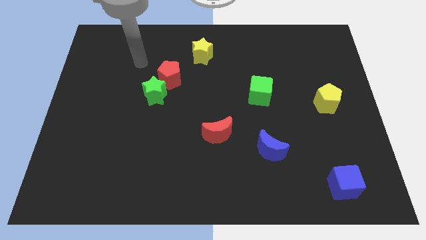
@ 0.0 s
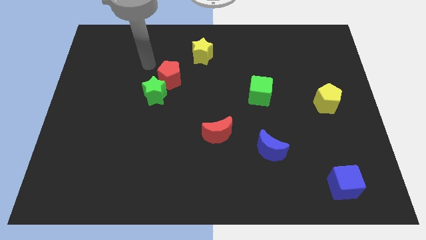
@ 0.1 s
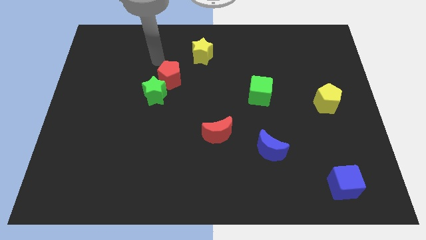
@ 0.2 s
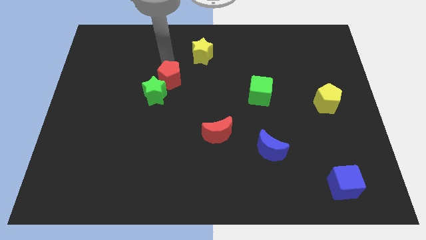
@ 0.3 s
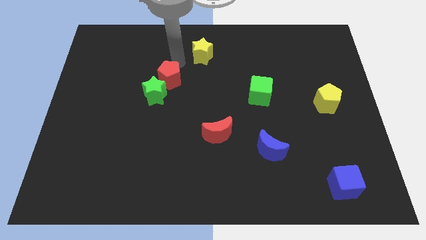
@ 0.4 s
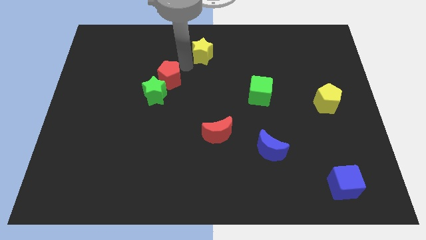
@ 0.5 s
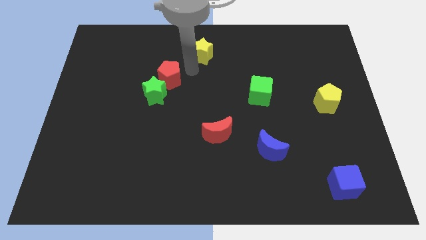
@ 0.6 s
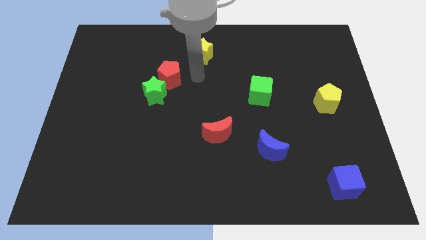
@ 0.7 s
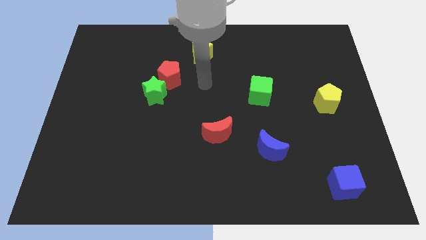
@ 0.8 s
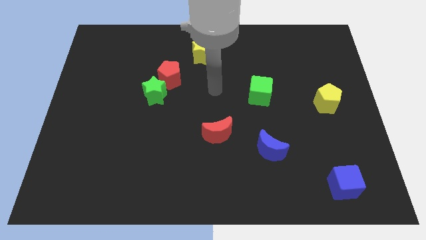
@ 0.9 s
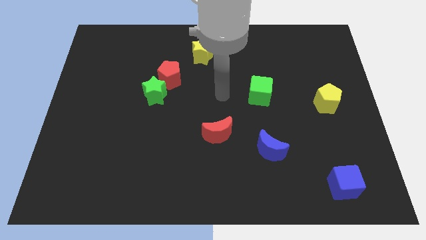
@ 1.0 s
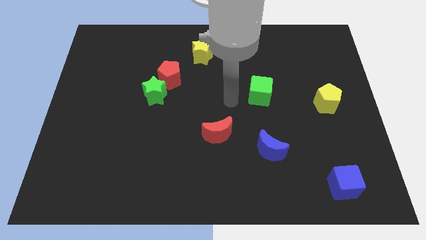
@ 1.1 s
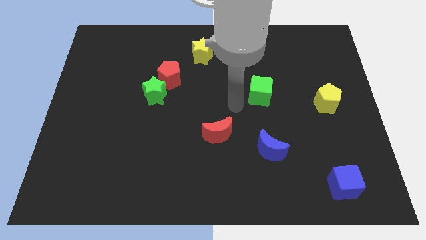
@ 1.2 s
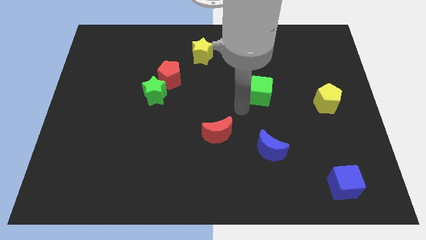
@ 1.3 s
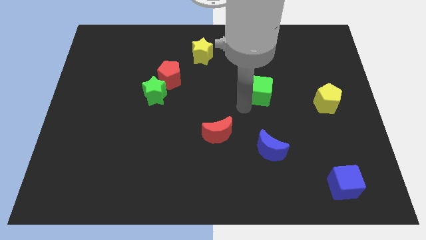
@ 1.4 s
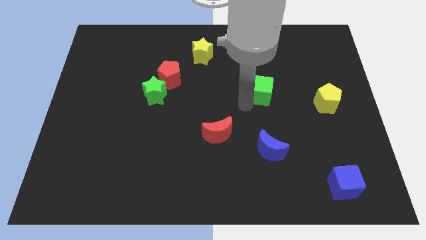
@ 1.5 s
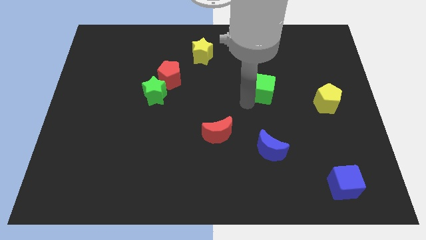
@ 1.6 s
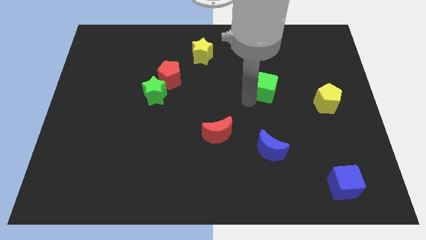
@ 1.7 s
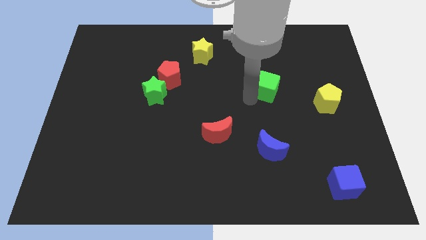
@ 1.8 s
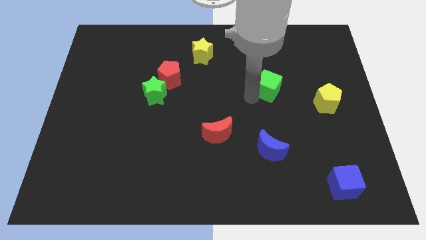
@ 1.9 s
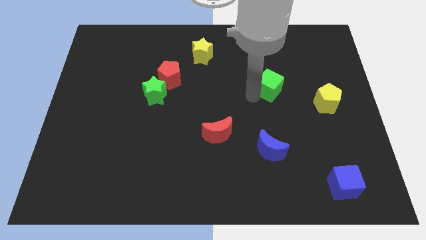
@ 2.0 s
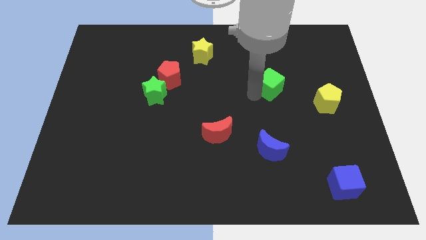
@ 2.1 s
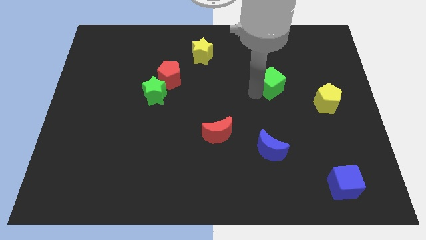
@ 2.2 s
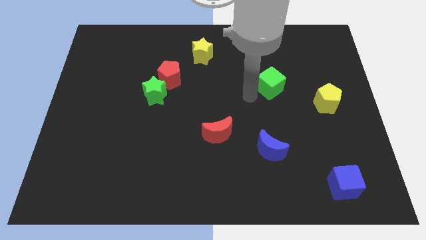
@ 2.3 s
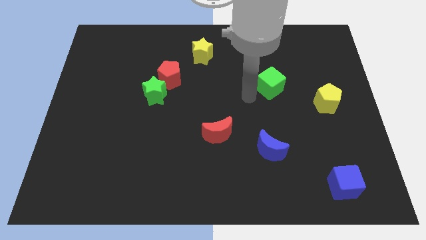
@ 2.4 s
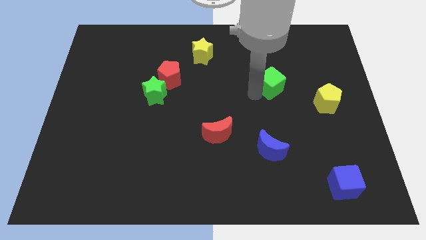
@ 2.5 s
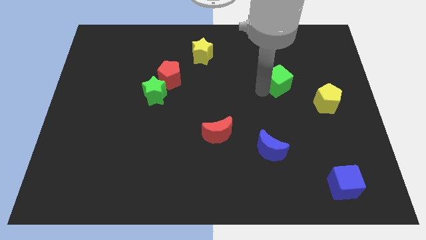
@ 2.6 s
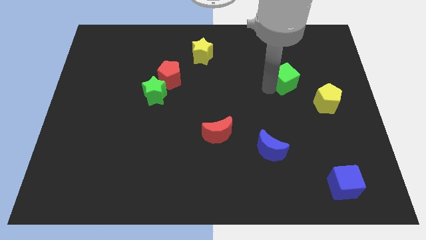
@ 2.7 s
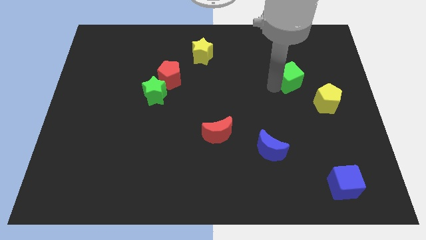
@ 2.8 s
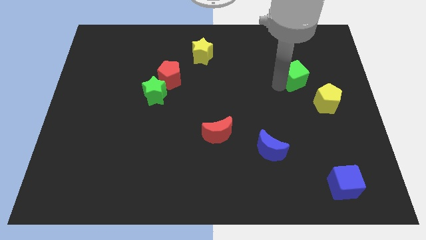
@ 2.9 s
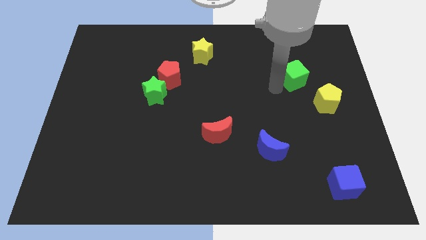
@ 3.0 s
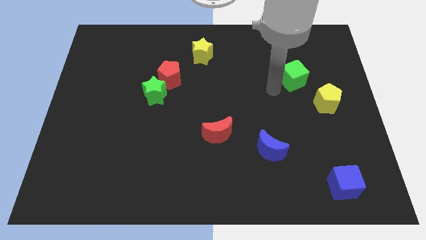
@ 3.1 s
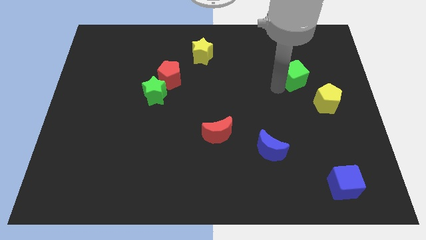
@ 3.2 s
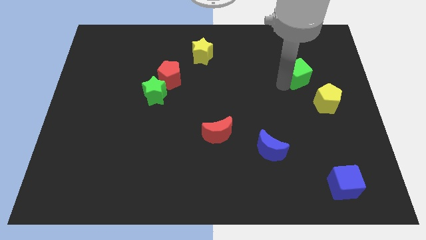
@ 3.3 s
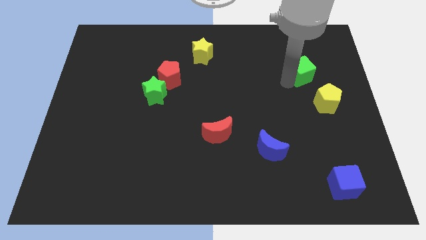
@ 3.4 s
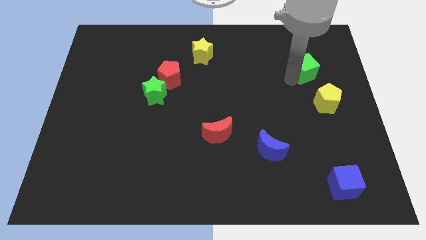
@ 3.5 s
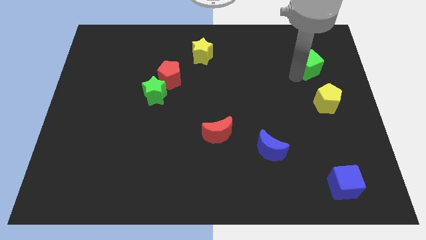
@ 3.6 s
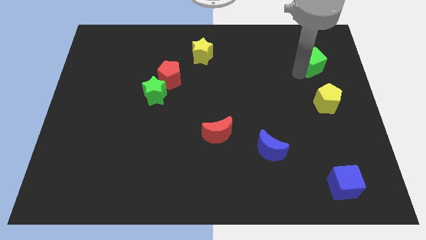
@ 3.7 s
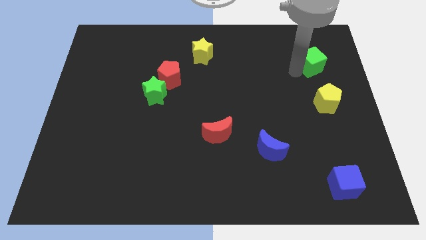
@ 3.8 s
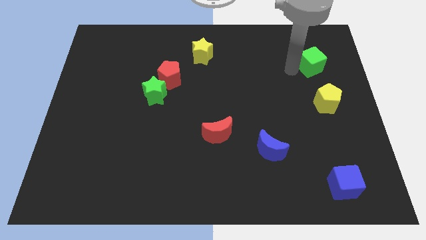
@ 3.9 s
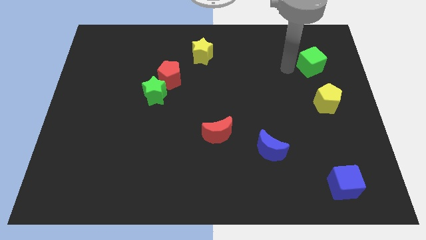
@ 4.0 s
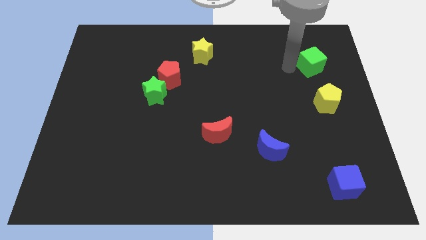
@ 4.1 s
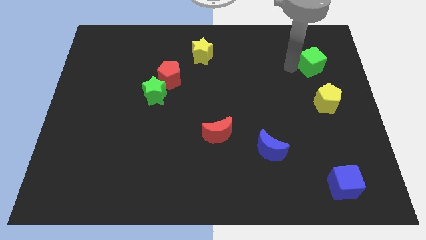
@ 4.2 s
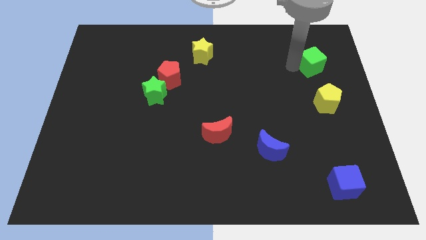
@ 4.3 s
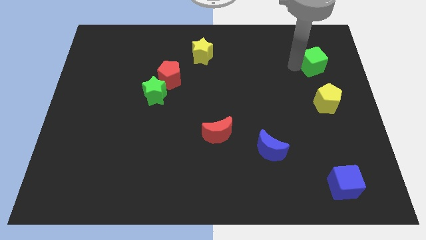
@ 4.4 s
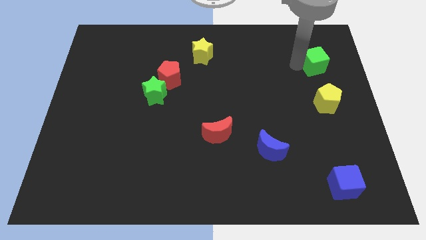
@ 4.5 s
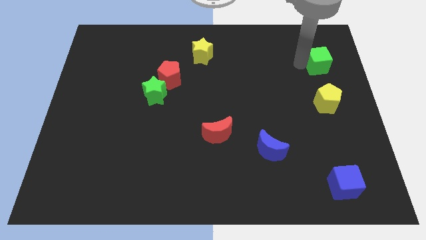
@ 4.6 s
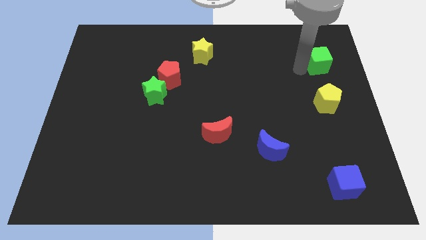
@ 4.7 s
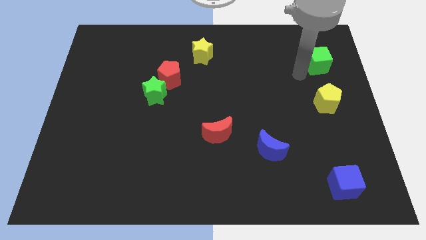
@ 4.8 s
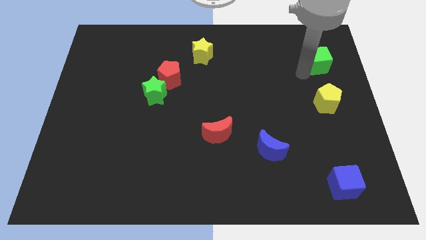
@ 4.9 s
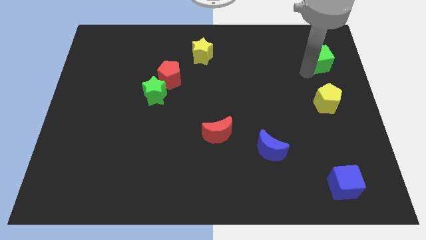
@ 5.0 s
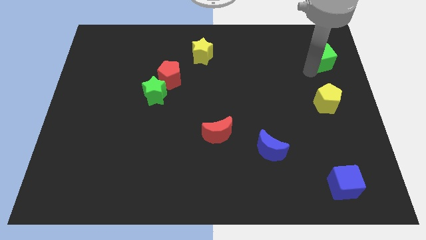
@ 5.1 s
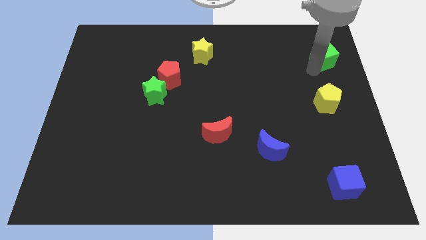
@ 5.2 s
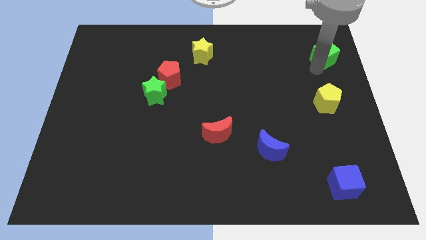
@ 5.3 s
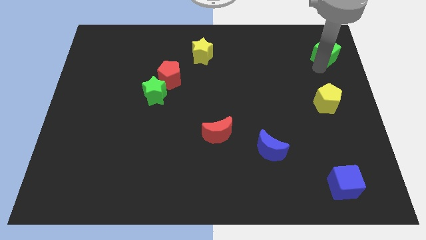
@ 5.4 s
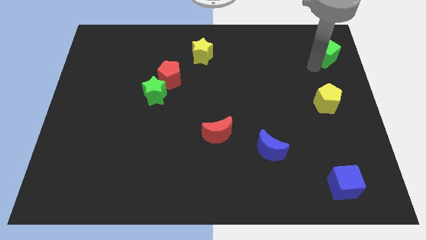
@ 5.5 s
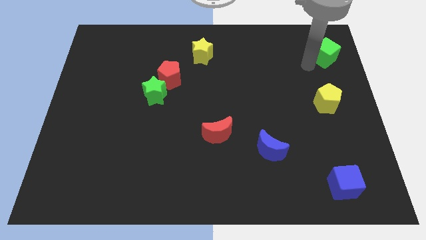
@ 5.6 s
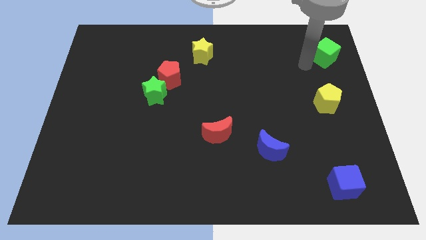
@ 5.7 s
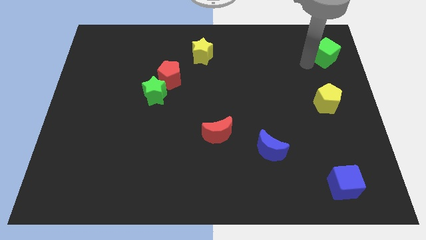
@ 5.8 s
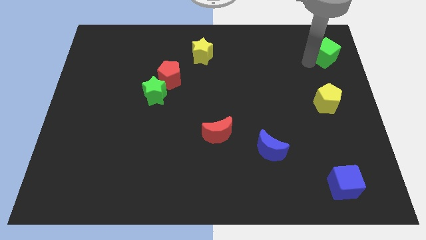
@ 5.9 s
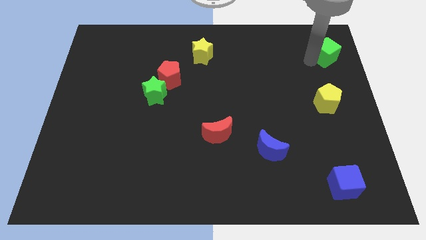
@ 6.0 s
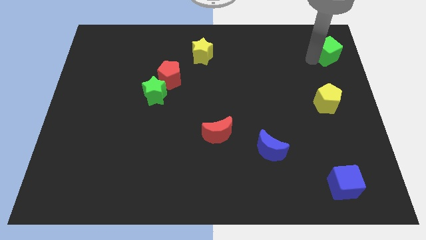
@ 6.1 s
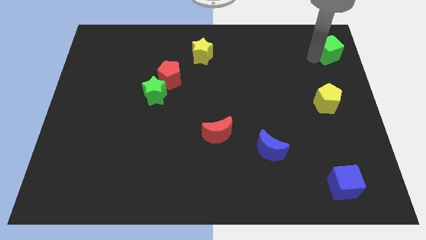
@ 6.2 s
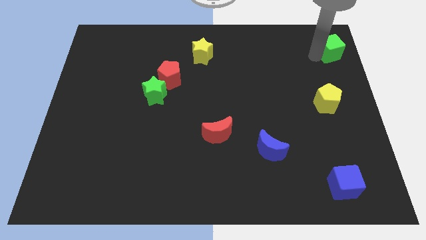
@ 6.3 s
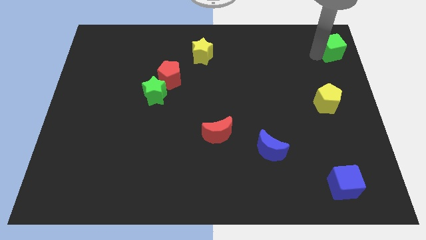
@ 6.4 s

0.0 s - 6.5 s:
push the green cube to the upper right corner

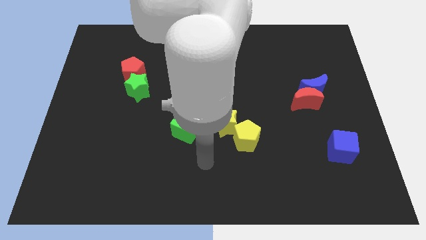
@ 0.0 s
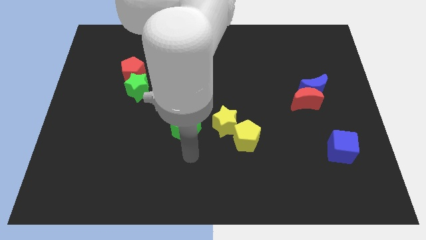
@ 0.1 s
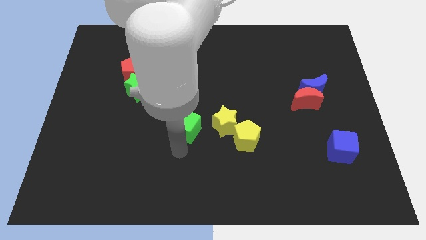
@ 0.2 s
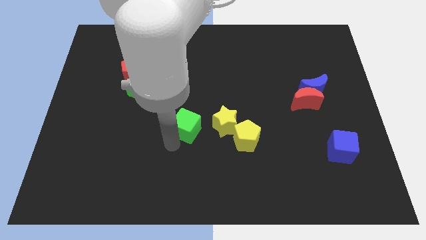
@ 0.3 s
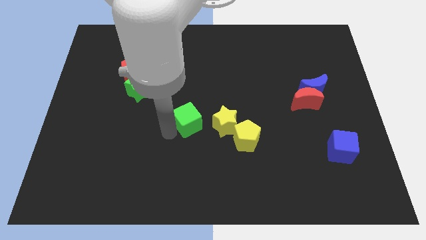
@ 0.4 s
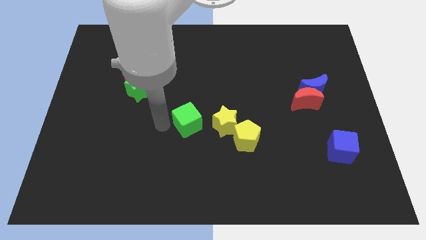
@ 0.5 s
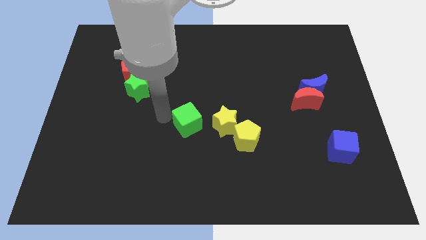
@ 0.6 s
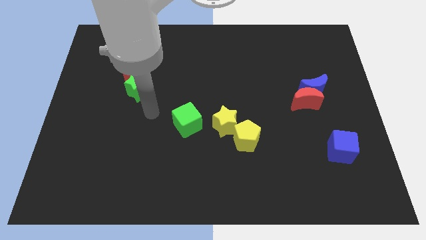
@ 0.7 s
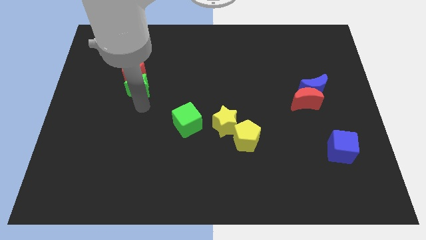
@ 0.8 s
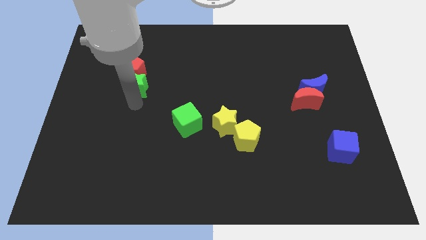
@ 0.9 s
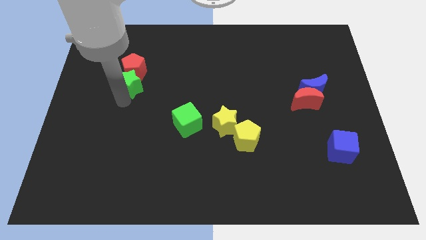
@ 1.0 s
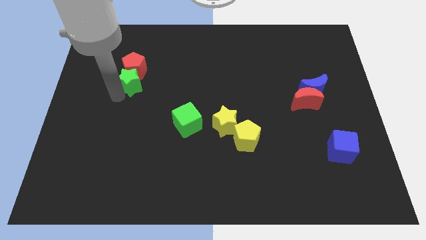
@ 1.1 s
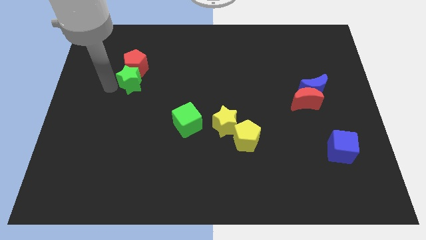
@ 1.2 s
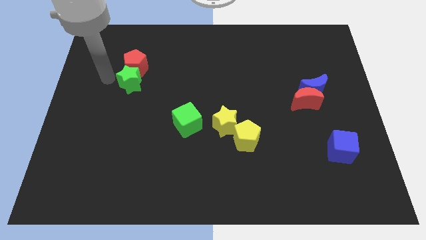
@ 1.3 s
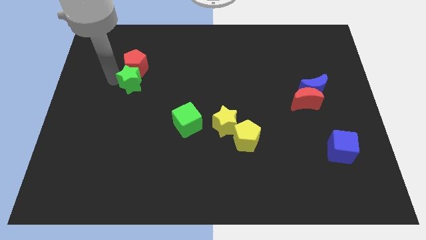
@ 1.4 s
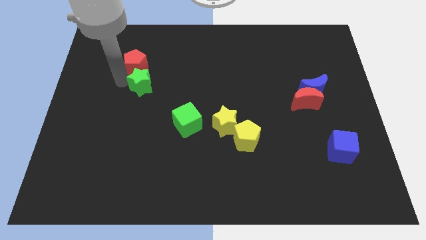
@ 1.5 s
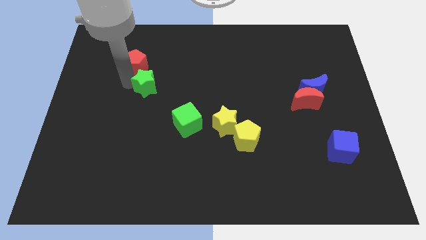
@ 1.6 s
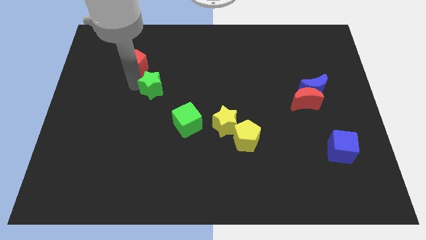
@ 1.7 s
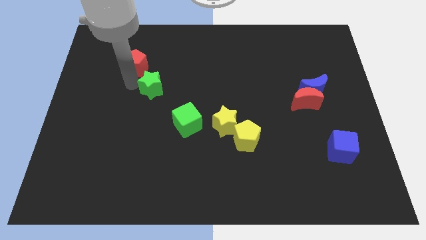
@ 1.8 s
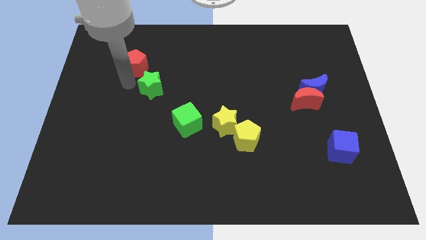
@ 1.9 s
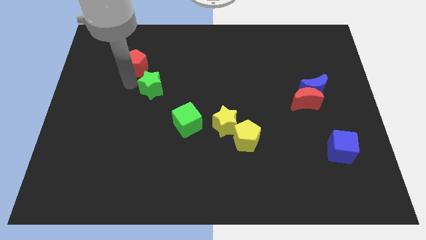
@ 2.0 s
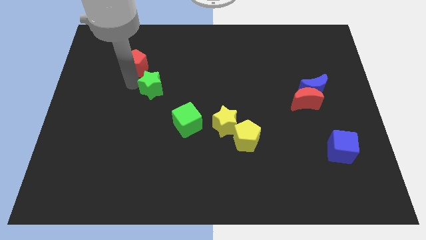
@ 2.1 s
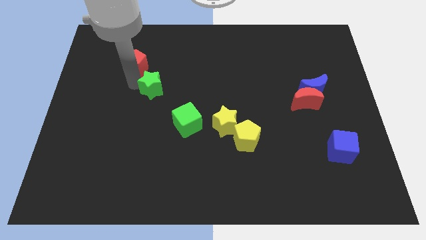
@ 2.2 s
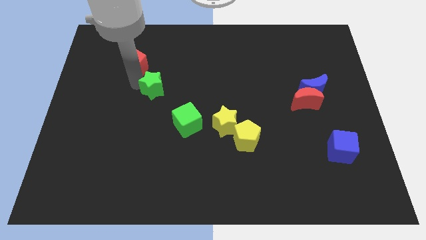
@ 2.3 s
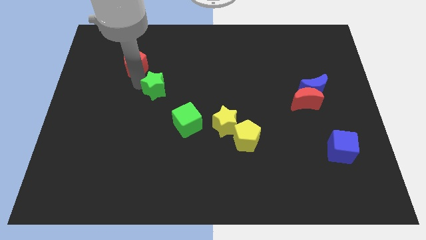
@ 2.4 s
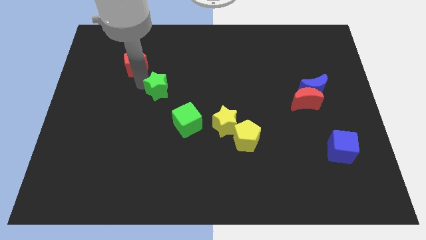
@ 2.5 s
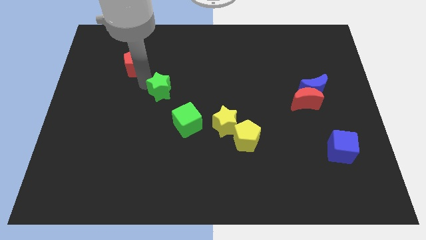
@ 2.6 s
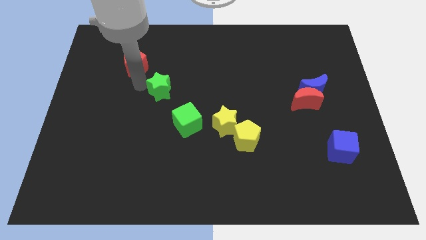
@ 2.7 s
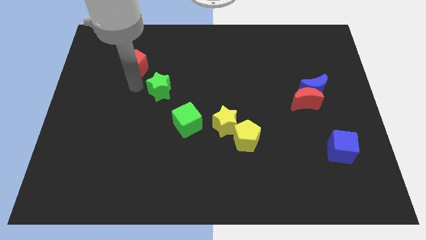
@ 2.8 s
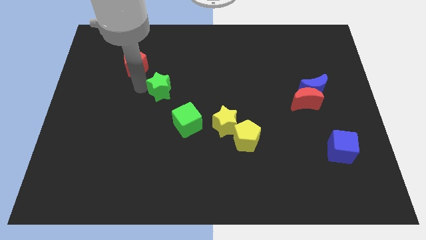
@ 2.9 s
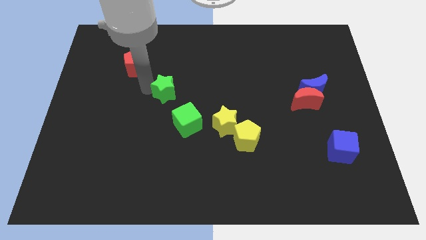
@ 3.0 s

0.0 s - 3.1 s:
push the green star to the center of the board
